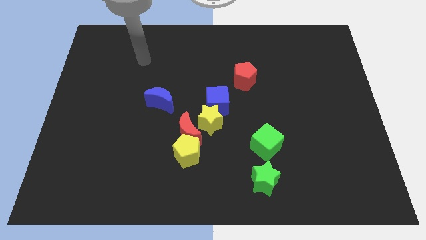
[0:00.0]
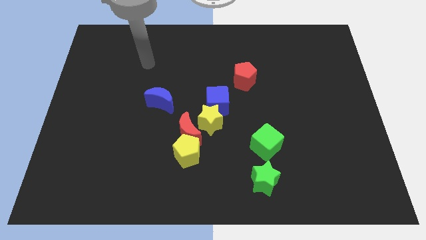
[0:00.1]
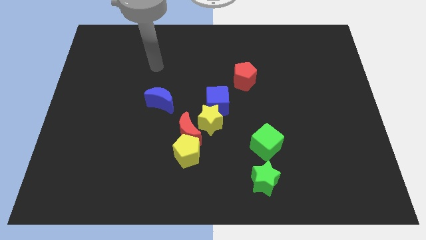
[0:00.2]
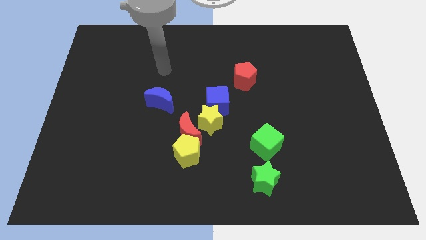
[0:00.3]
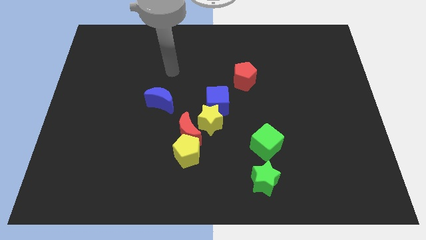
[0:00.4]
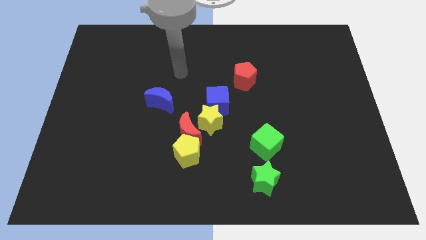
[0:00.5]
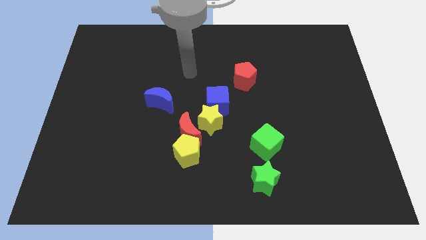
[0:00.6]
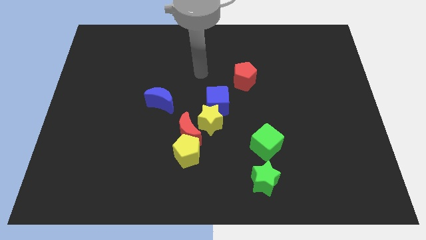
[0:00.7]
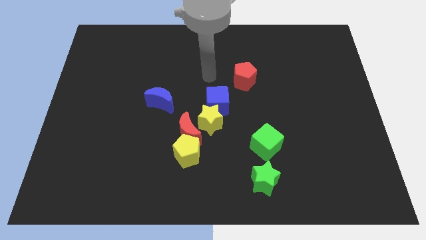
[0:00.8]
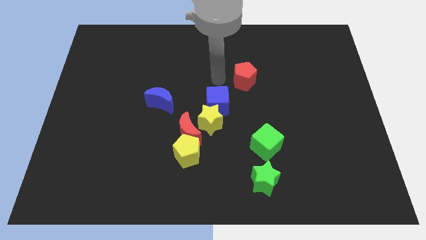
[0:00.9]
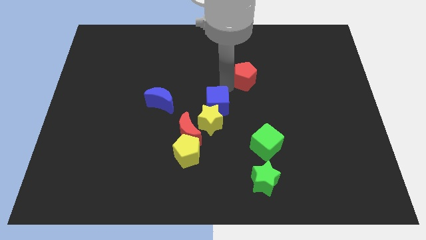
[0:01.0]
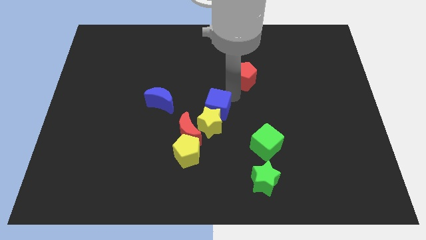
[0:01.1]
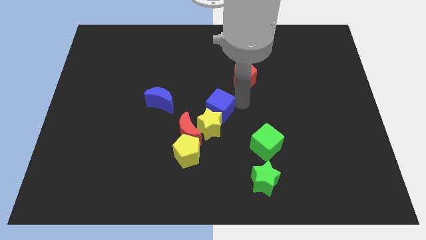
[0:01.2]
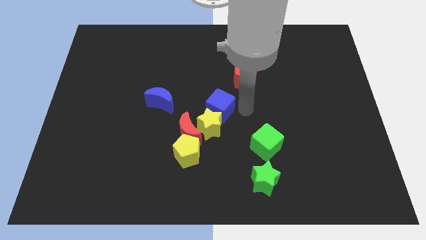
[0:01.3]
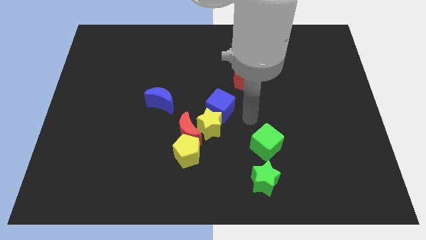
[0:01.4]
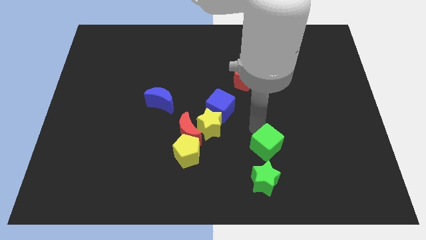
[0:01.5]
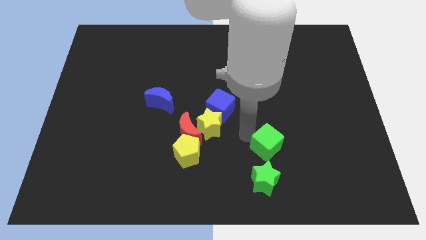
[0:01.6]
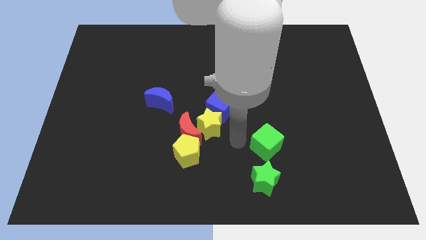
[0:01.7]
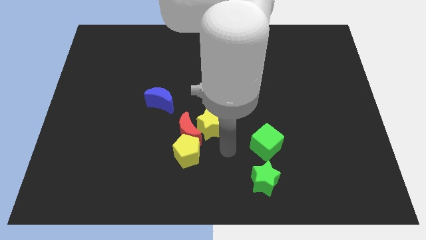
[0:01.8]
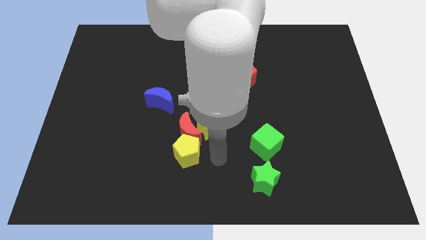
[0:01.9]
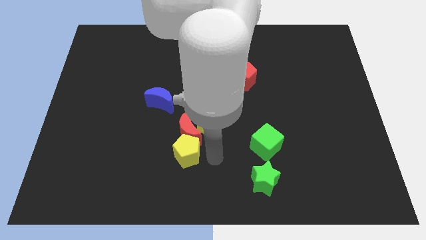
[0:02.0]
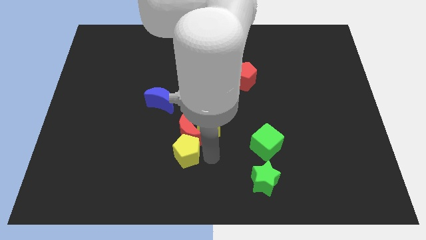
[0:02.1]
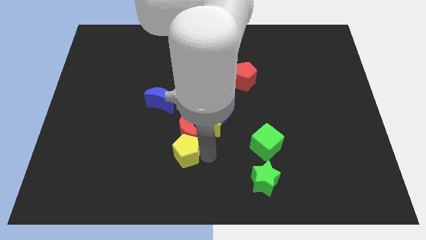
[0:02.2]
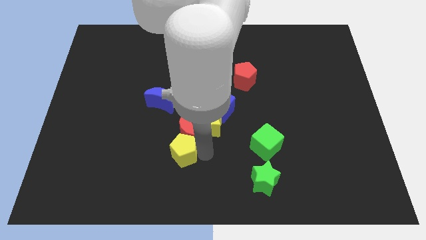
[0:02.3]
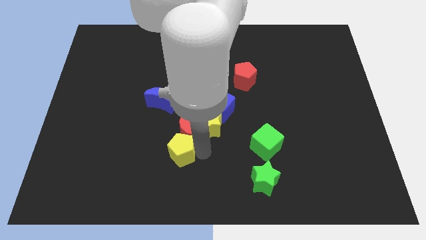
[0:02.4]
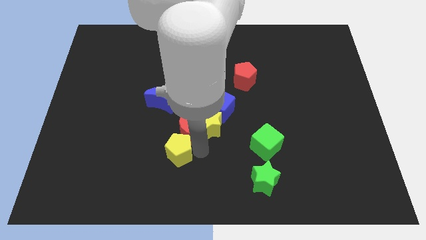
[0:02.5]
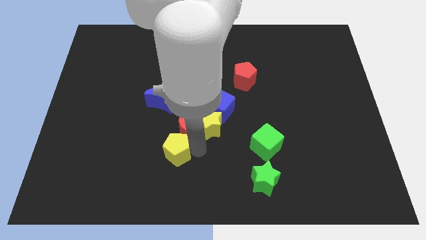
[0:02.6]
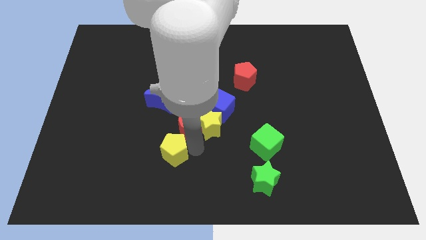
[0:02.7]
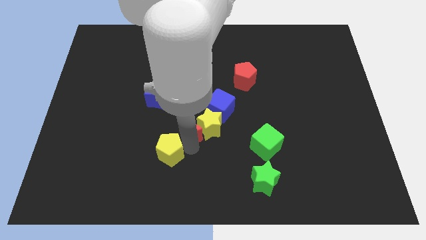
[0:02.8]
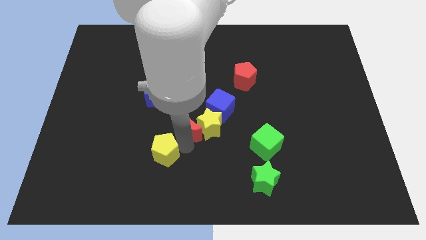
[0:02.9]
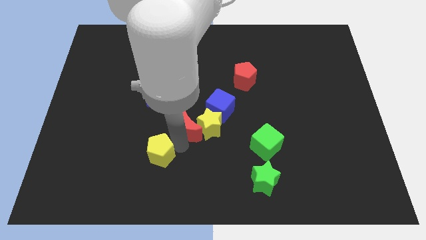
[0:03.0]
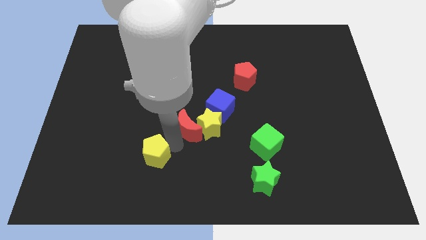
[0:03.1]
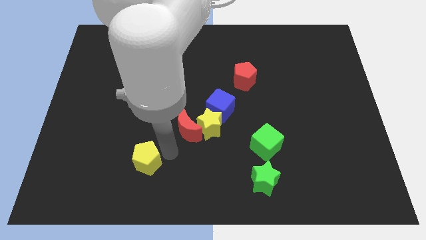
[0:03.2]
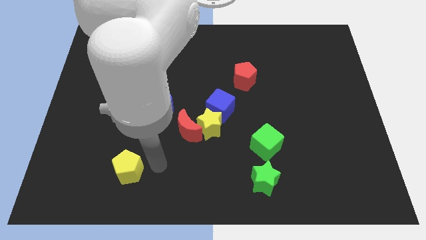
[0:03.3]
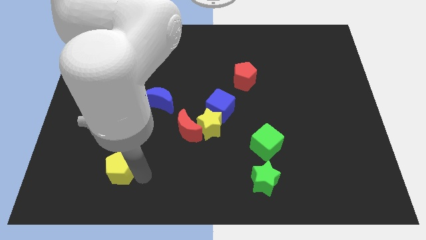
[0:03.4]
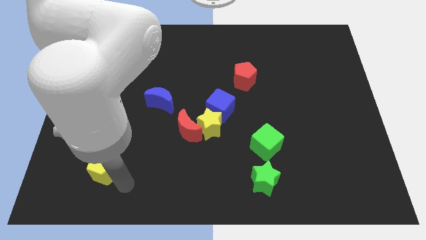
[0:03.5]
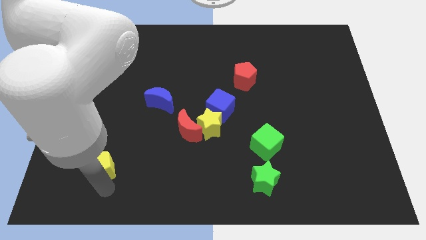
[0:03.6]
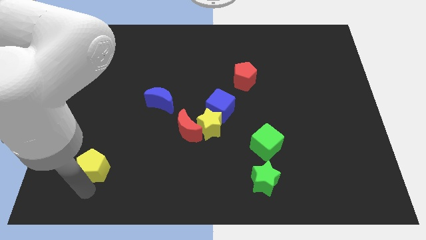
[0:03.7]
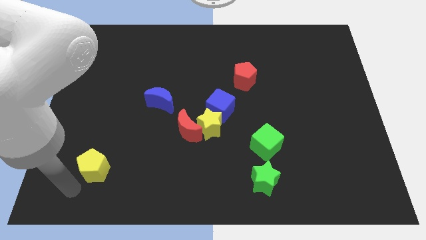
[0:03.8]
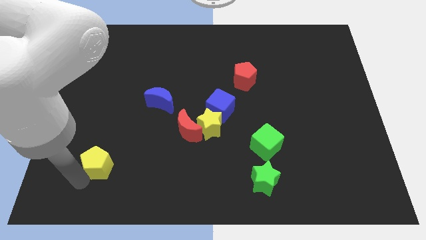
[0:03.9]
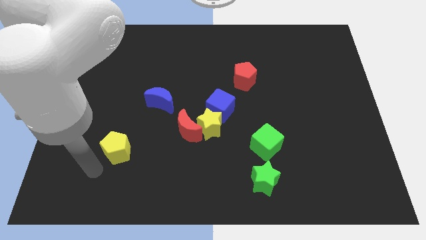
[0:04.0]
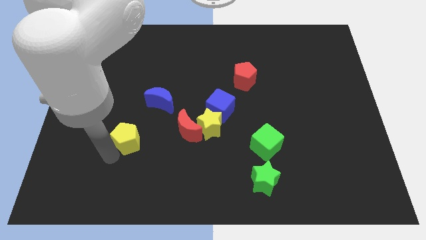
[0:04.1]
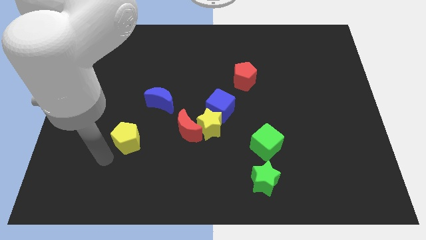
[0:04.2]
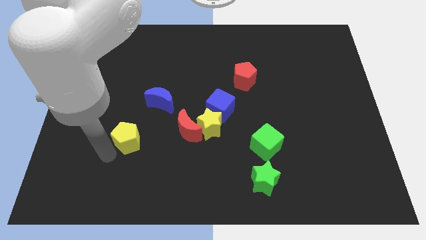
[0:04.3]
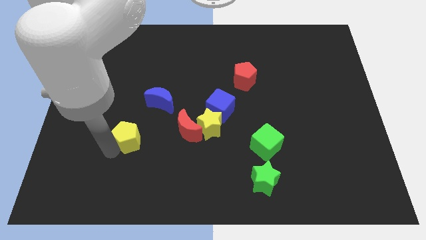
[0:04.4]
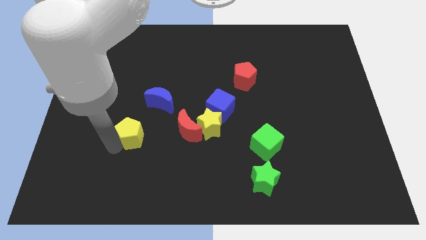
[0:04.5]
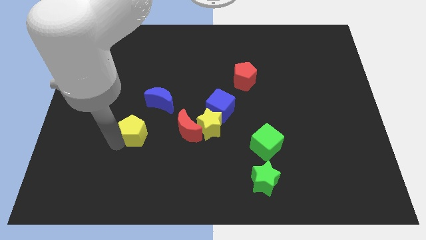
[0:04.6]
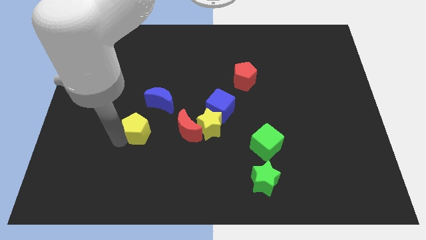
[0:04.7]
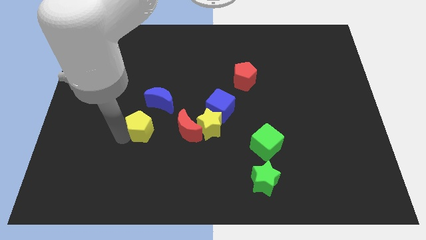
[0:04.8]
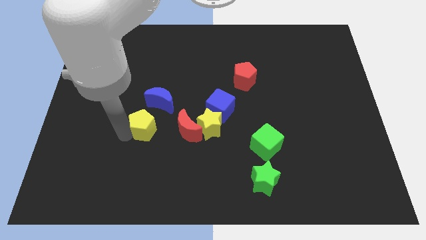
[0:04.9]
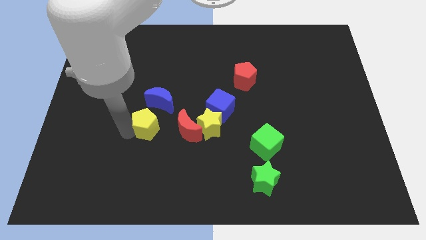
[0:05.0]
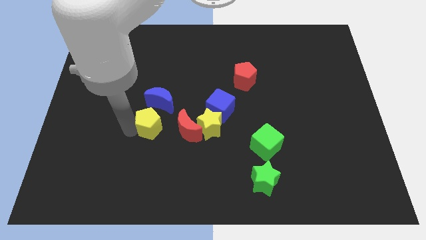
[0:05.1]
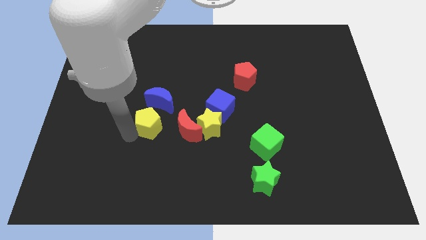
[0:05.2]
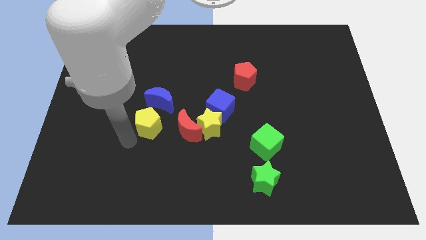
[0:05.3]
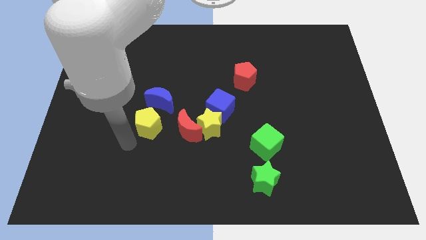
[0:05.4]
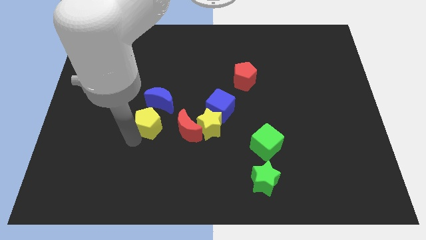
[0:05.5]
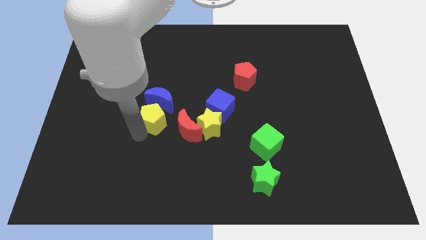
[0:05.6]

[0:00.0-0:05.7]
push the yellow pentagon to the top left side of the red moon

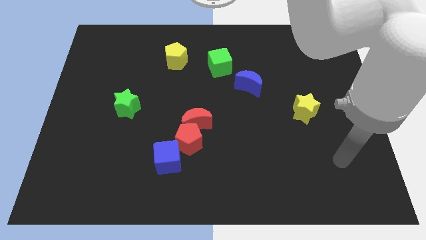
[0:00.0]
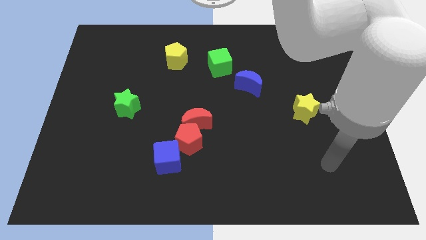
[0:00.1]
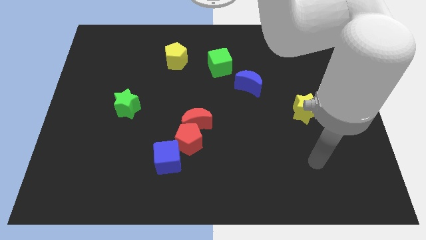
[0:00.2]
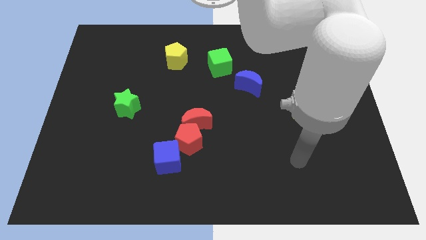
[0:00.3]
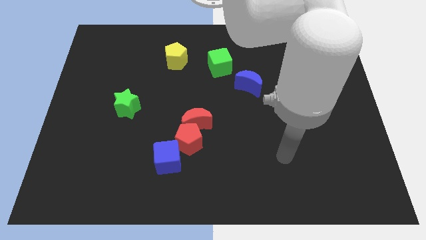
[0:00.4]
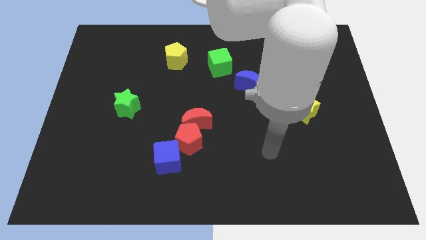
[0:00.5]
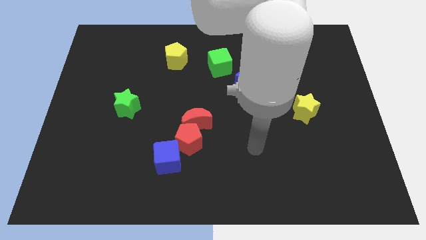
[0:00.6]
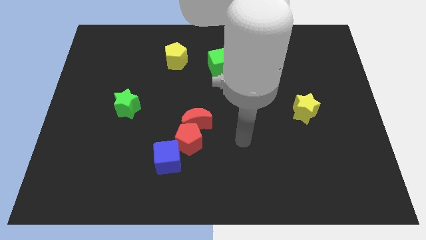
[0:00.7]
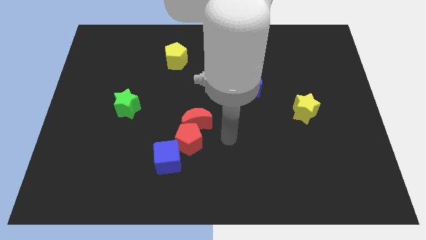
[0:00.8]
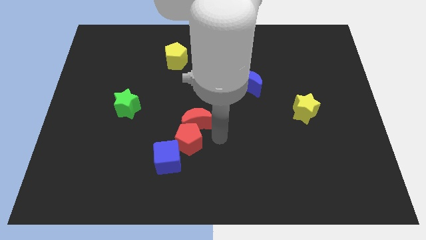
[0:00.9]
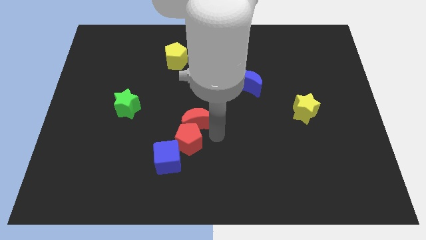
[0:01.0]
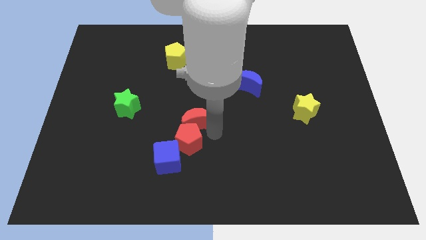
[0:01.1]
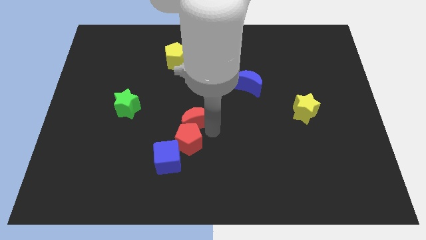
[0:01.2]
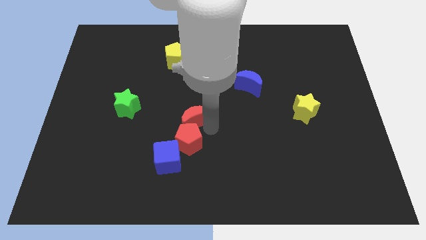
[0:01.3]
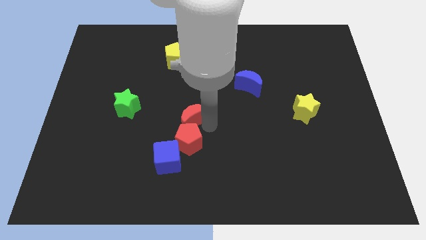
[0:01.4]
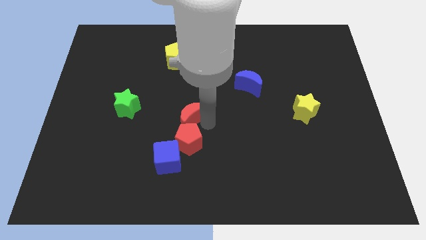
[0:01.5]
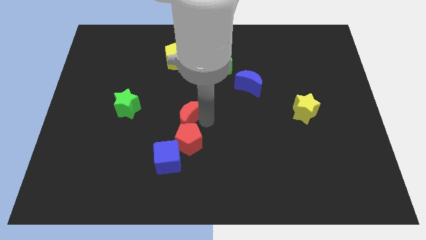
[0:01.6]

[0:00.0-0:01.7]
move the red moon just right of the green star
